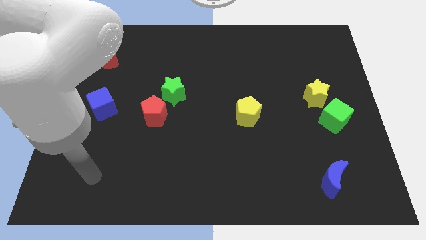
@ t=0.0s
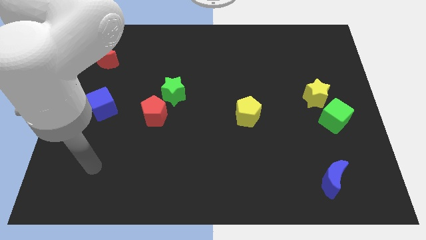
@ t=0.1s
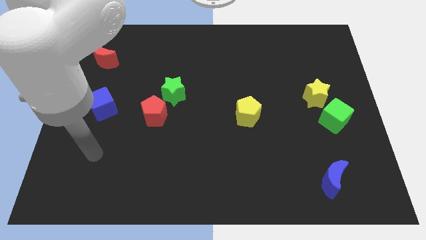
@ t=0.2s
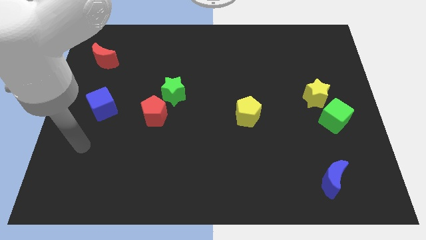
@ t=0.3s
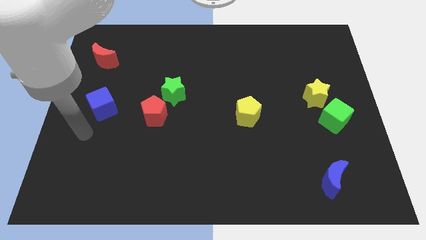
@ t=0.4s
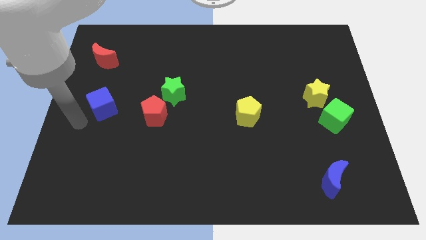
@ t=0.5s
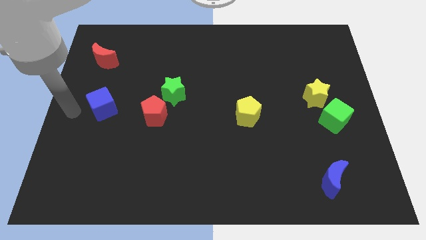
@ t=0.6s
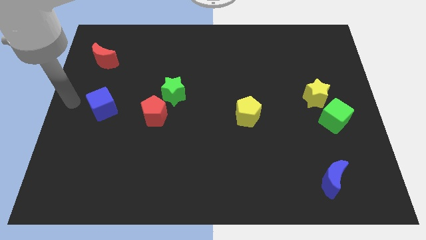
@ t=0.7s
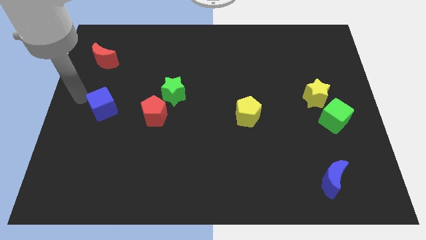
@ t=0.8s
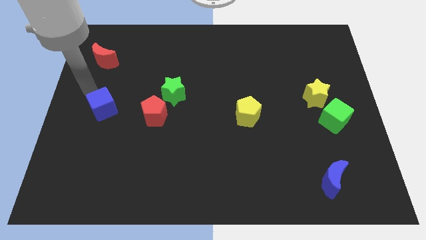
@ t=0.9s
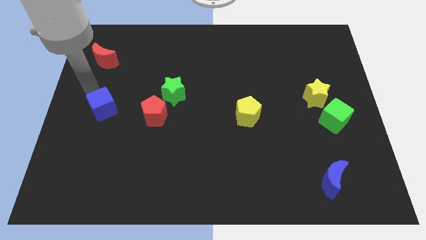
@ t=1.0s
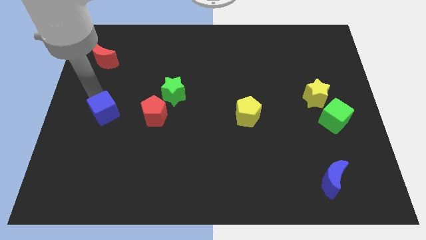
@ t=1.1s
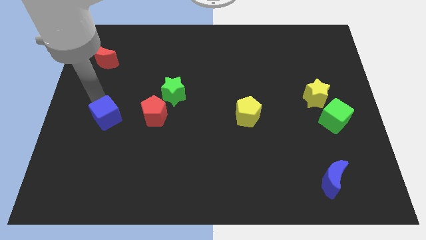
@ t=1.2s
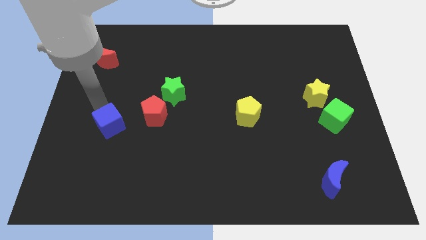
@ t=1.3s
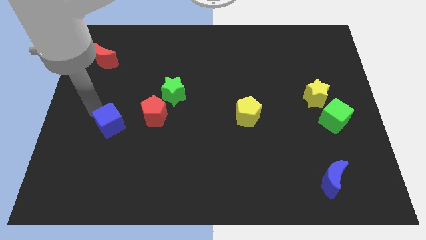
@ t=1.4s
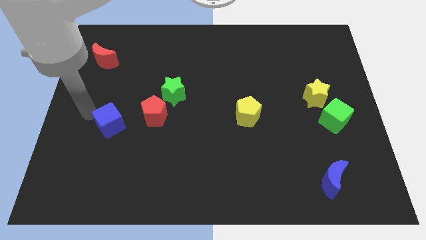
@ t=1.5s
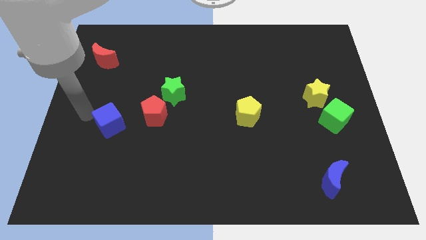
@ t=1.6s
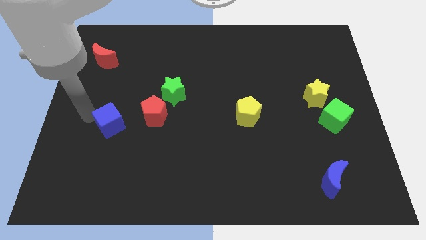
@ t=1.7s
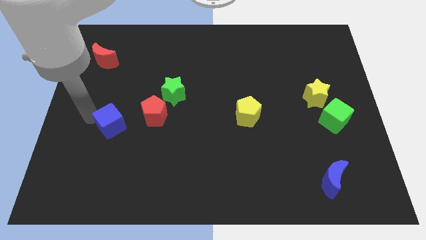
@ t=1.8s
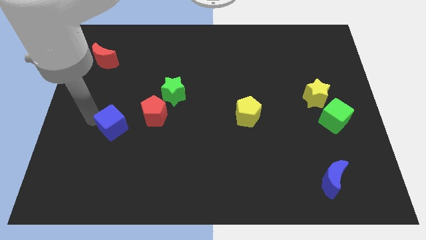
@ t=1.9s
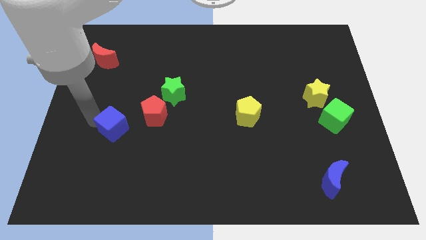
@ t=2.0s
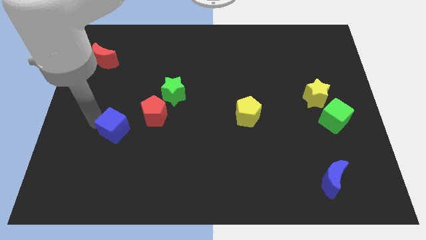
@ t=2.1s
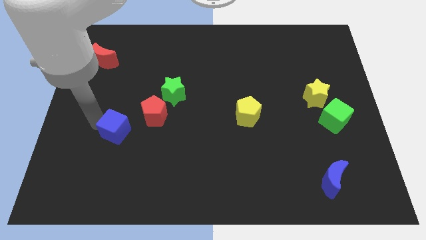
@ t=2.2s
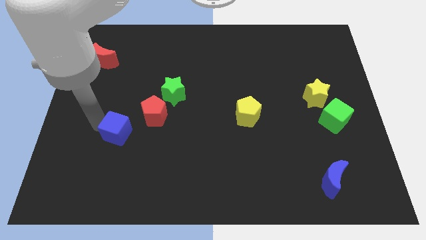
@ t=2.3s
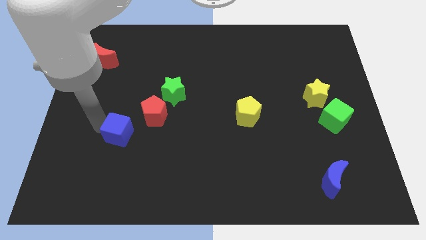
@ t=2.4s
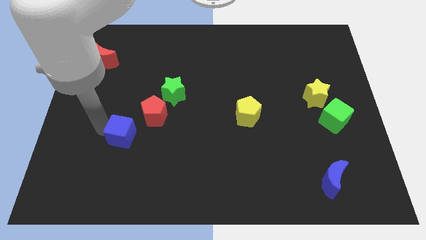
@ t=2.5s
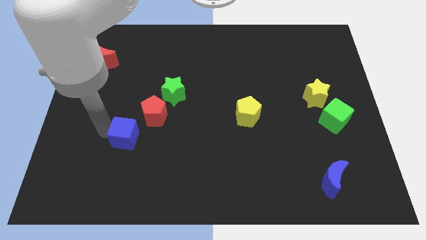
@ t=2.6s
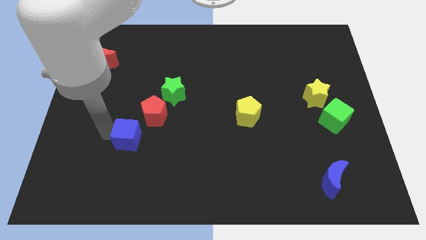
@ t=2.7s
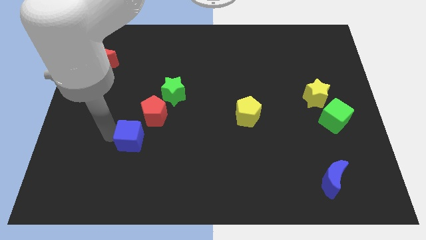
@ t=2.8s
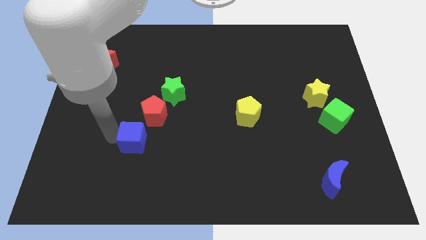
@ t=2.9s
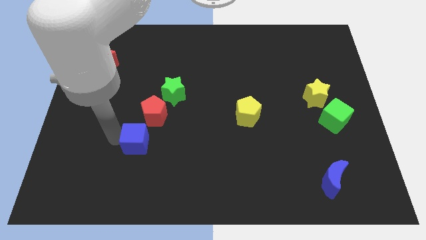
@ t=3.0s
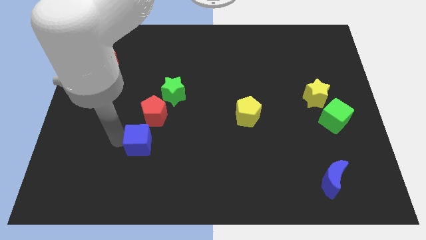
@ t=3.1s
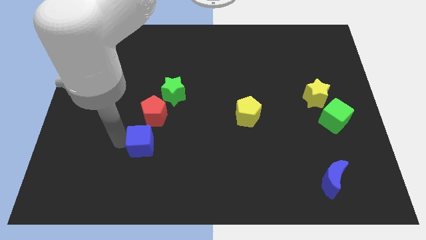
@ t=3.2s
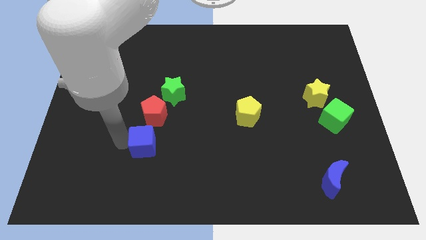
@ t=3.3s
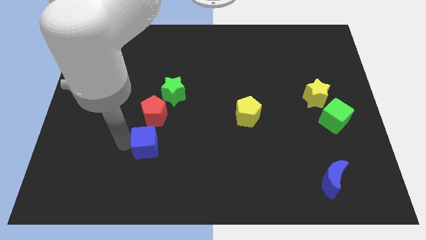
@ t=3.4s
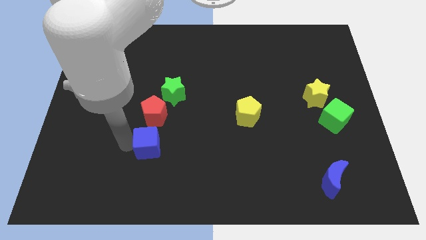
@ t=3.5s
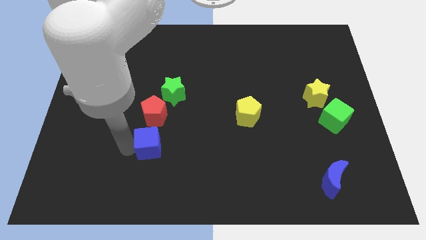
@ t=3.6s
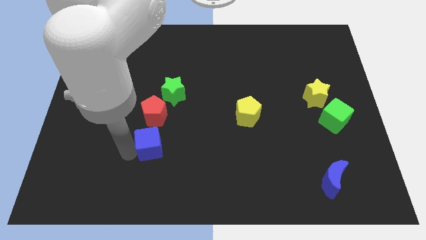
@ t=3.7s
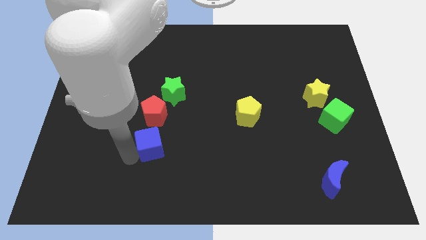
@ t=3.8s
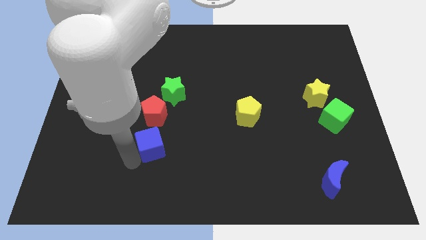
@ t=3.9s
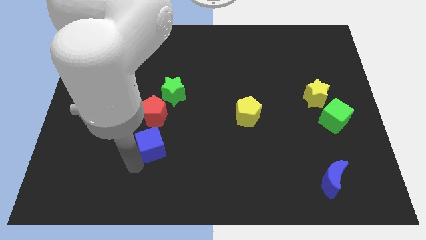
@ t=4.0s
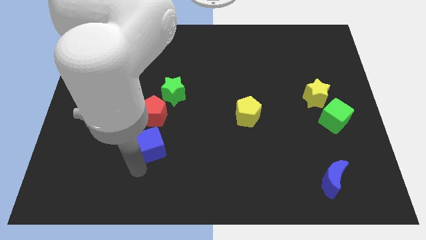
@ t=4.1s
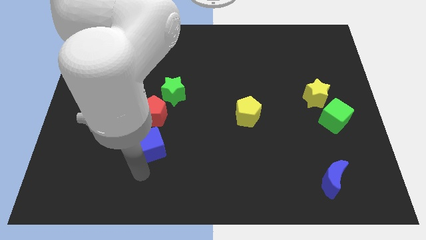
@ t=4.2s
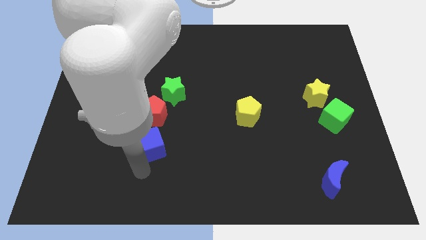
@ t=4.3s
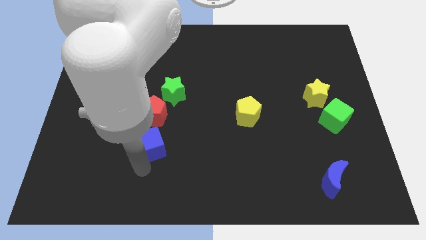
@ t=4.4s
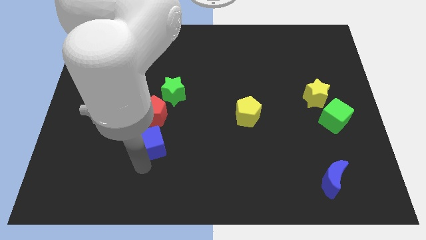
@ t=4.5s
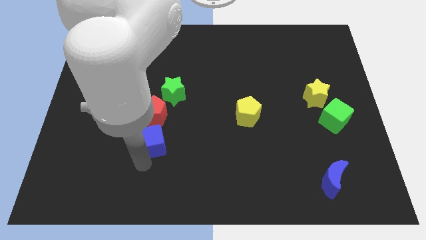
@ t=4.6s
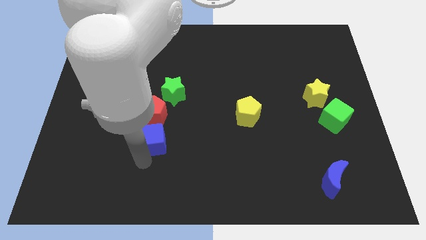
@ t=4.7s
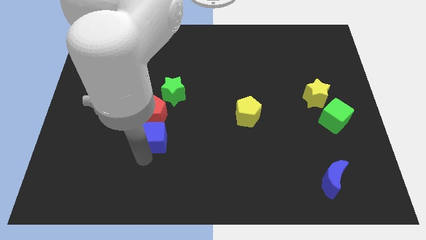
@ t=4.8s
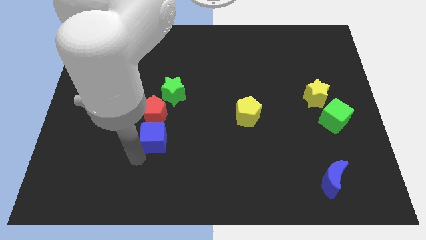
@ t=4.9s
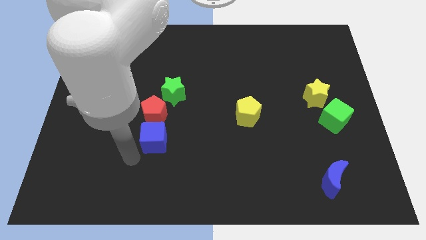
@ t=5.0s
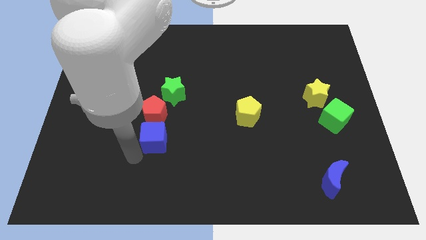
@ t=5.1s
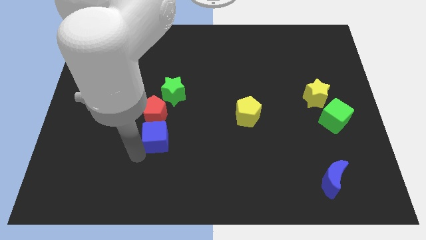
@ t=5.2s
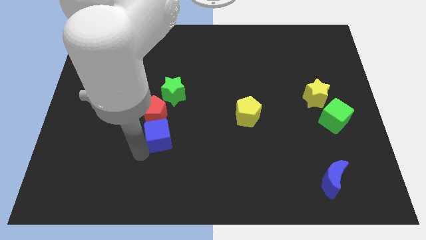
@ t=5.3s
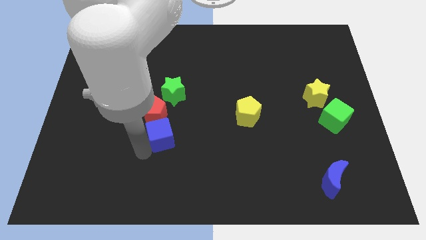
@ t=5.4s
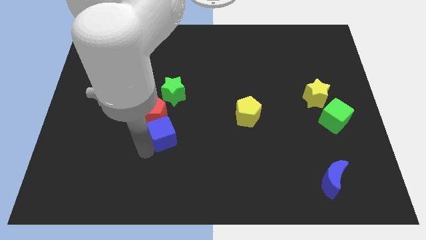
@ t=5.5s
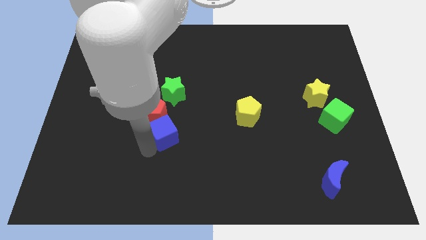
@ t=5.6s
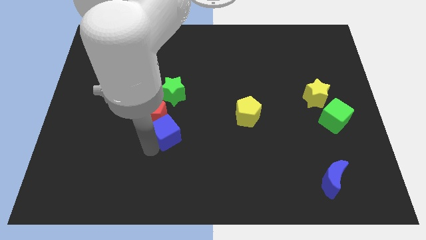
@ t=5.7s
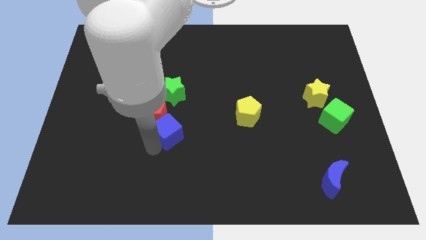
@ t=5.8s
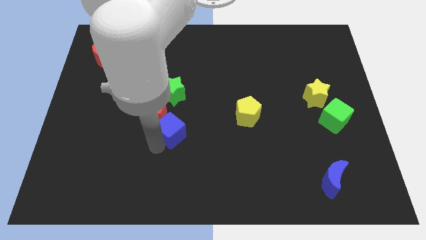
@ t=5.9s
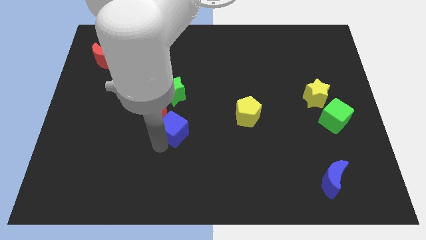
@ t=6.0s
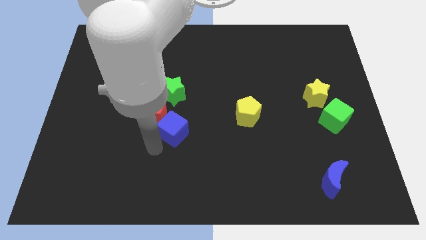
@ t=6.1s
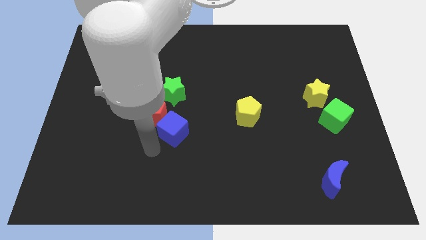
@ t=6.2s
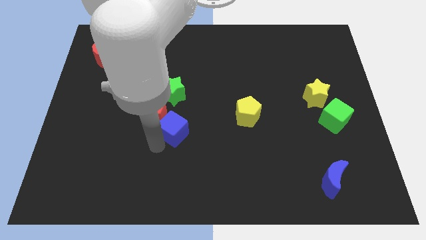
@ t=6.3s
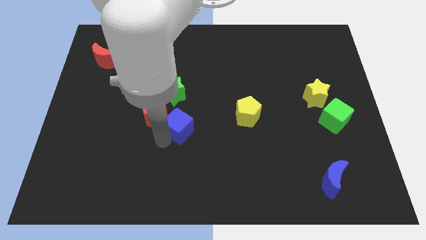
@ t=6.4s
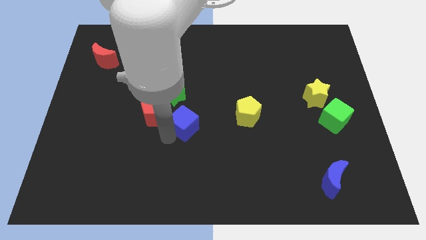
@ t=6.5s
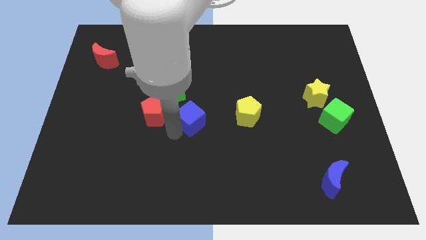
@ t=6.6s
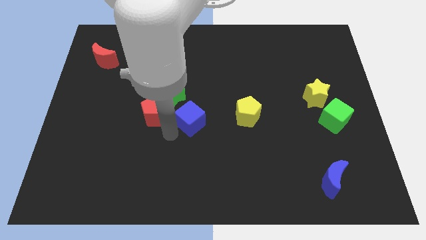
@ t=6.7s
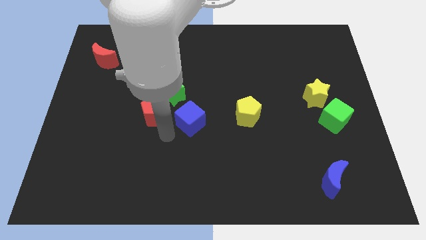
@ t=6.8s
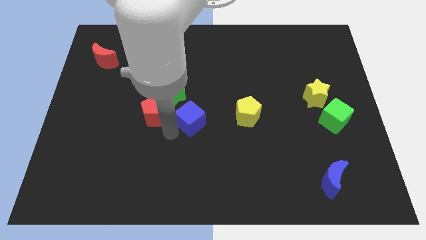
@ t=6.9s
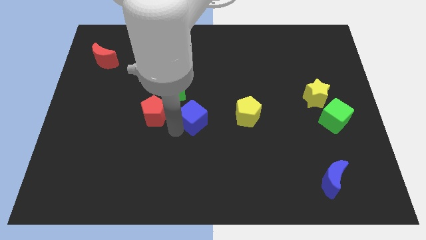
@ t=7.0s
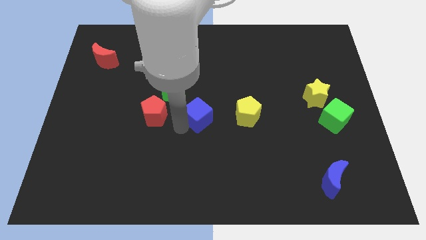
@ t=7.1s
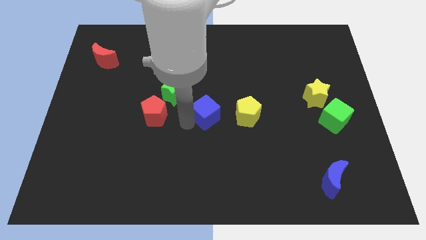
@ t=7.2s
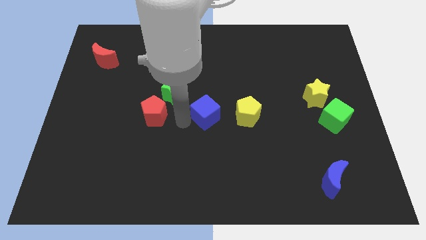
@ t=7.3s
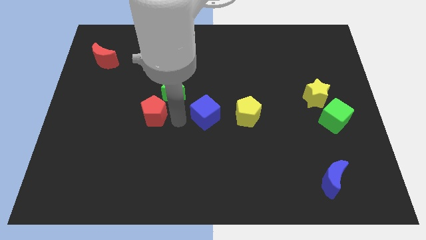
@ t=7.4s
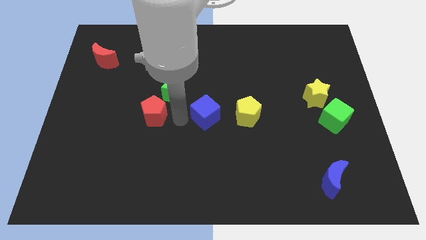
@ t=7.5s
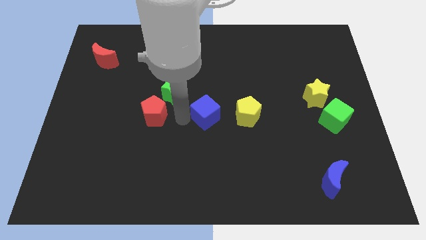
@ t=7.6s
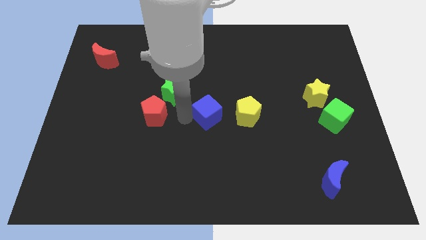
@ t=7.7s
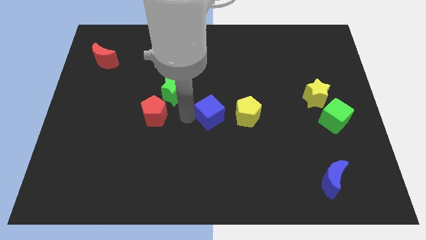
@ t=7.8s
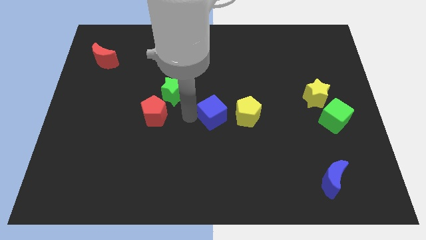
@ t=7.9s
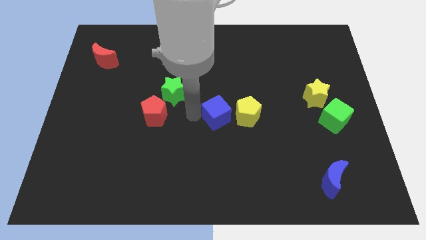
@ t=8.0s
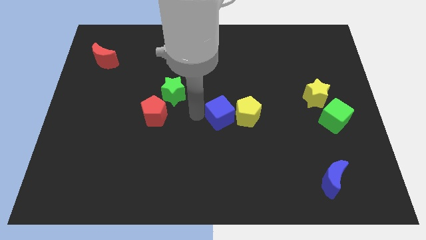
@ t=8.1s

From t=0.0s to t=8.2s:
slide the blue cube close to the yellow pentagon
